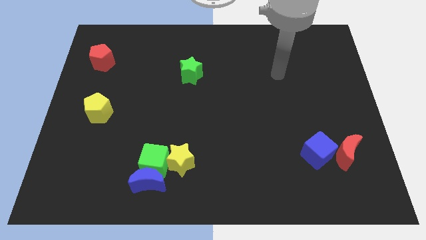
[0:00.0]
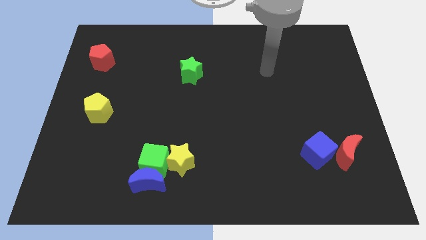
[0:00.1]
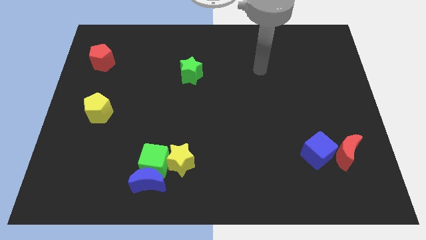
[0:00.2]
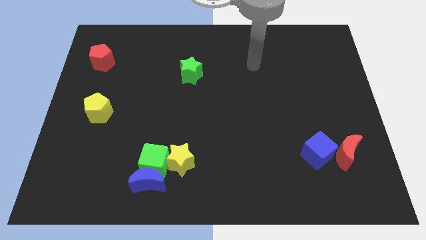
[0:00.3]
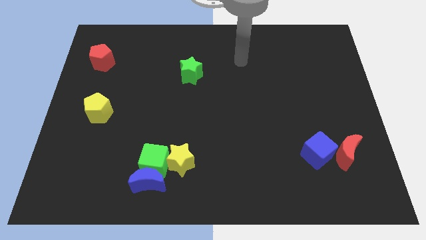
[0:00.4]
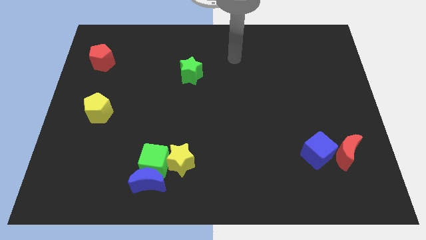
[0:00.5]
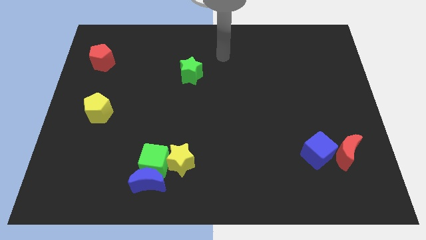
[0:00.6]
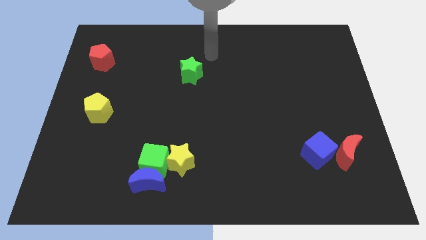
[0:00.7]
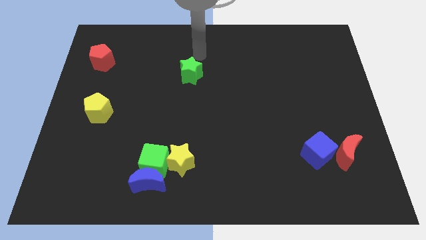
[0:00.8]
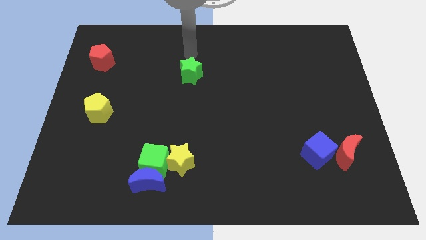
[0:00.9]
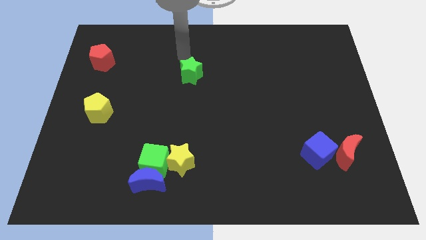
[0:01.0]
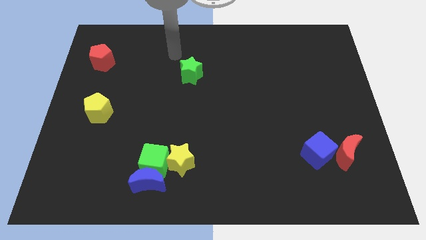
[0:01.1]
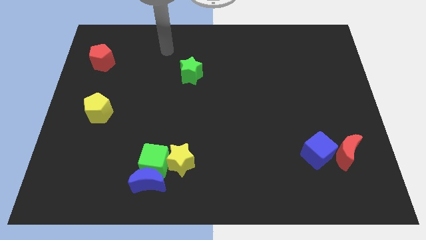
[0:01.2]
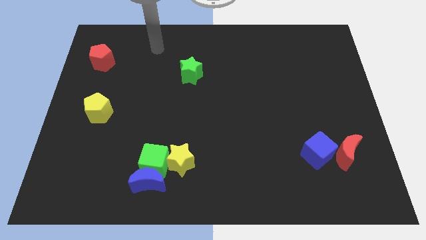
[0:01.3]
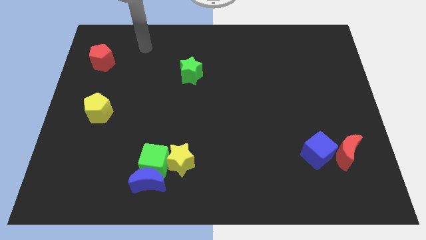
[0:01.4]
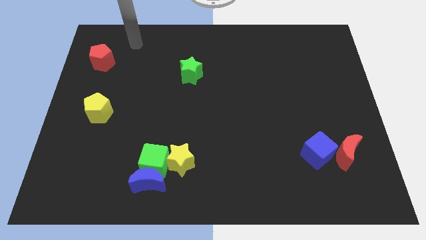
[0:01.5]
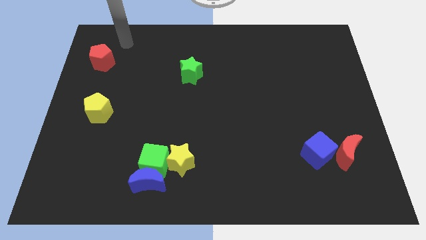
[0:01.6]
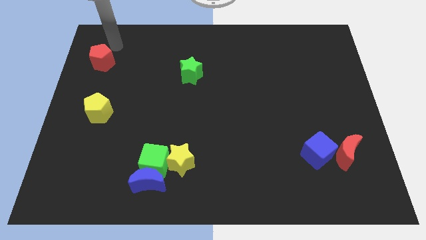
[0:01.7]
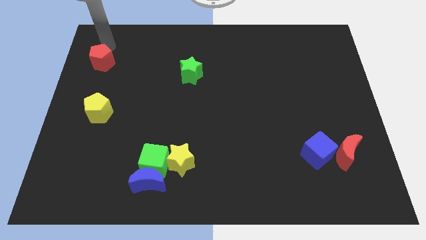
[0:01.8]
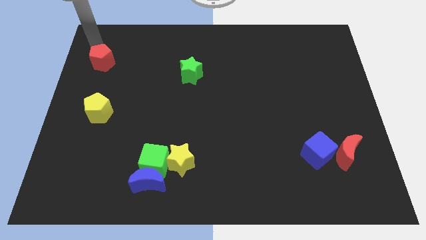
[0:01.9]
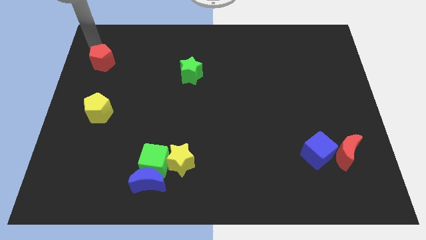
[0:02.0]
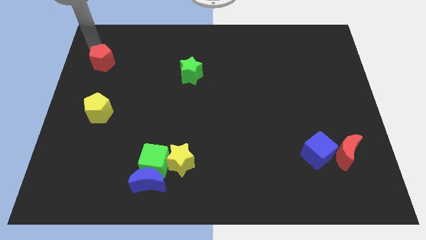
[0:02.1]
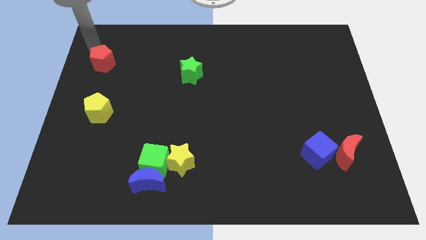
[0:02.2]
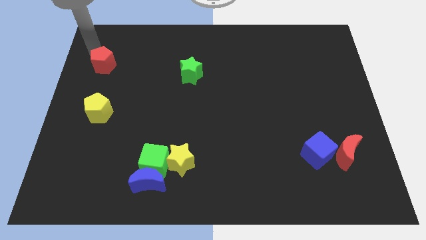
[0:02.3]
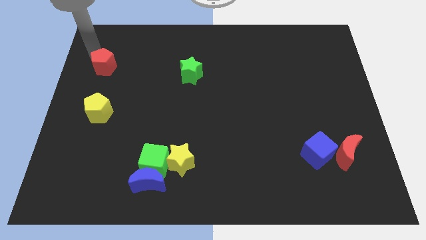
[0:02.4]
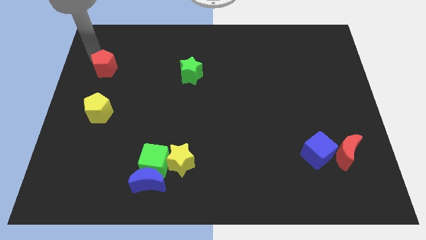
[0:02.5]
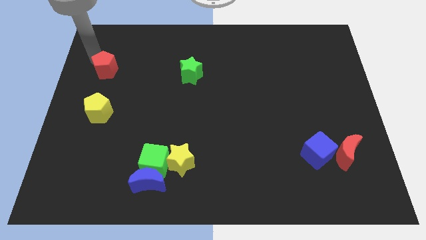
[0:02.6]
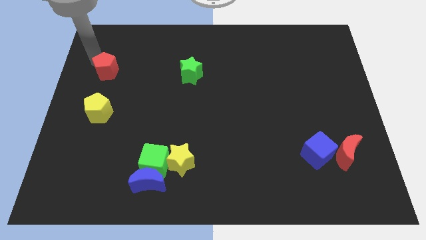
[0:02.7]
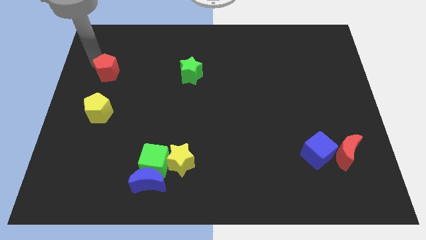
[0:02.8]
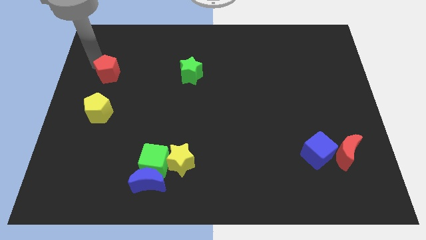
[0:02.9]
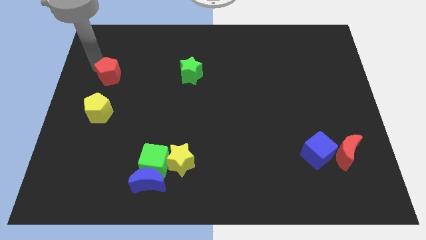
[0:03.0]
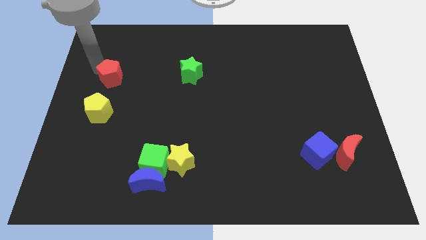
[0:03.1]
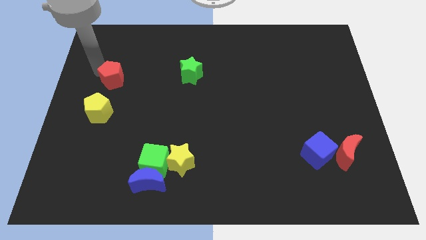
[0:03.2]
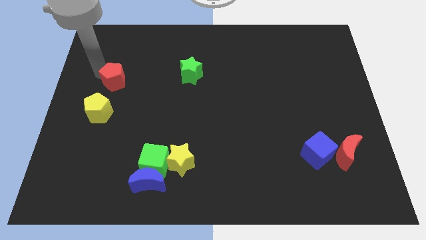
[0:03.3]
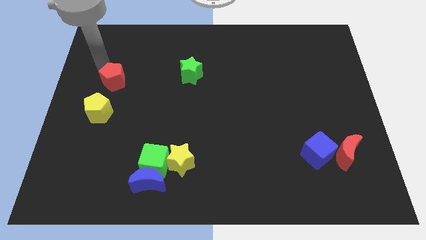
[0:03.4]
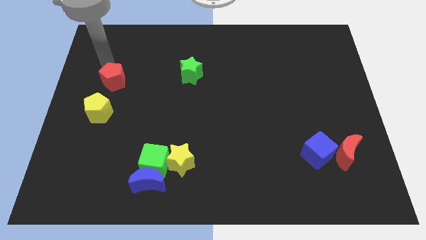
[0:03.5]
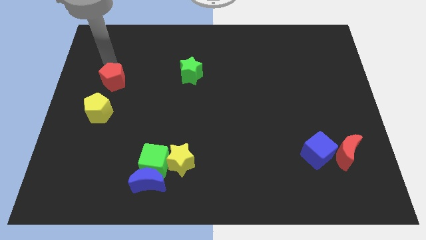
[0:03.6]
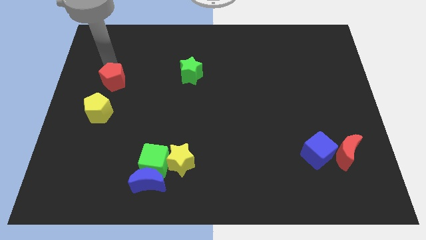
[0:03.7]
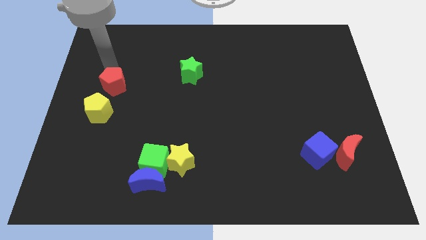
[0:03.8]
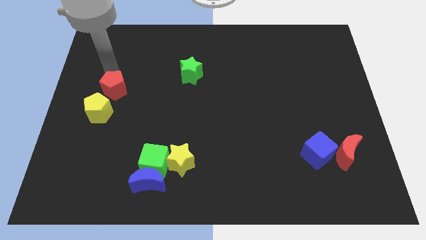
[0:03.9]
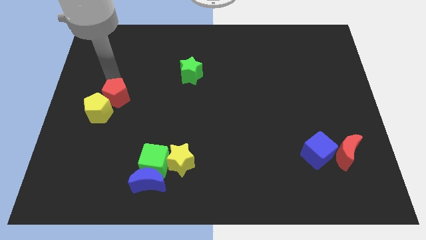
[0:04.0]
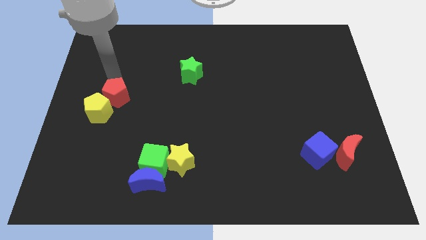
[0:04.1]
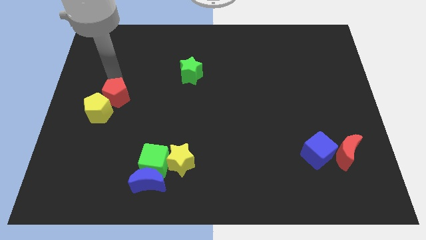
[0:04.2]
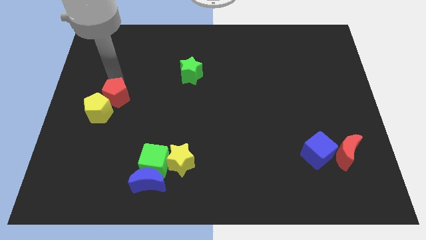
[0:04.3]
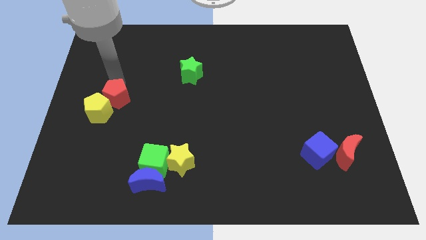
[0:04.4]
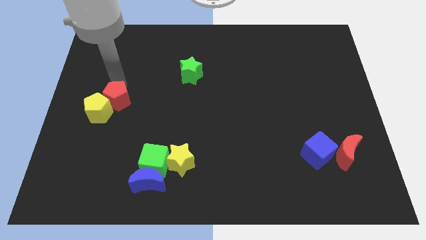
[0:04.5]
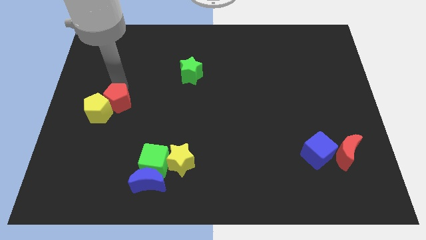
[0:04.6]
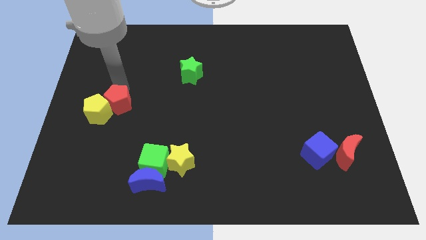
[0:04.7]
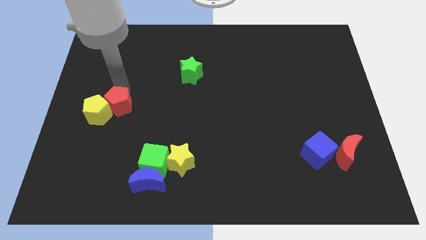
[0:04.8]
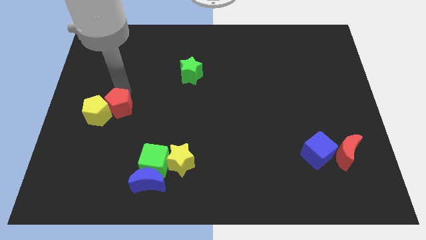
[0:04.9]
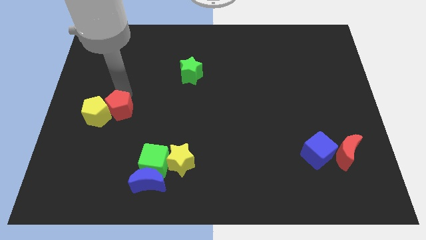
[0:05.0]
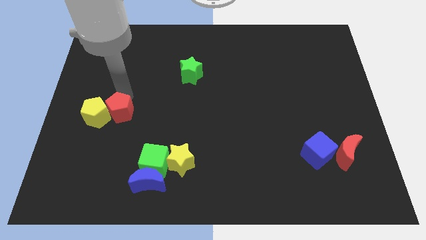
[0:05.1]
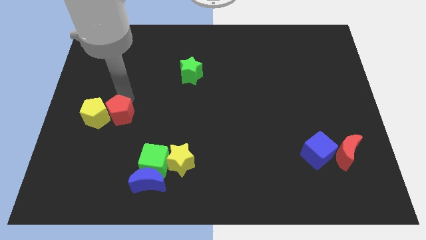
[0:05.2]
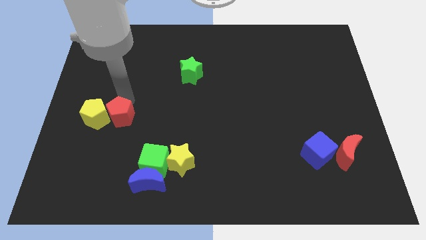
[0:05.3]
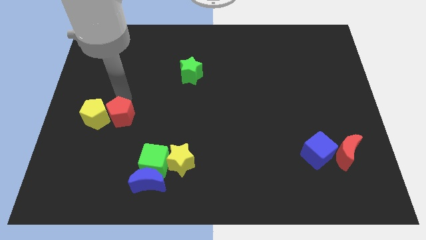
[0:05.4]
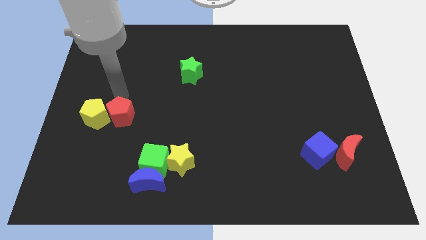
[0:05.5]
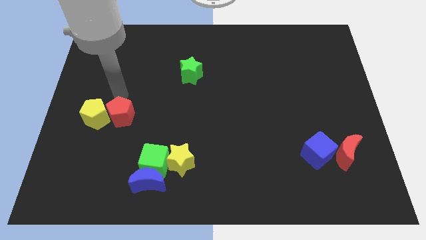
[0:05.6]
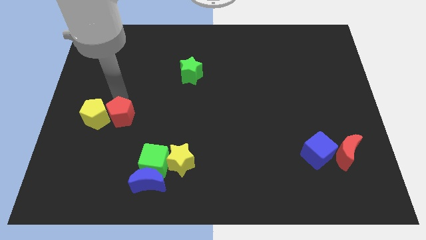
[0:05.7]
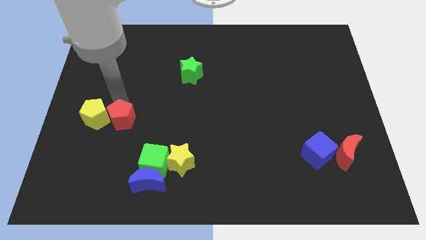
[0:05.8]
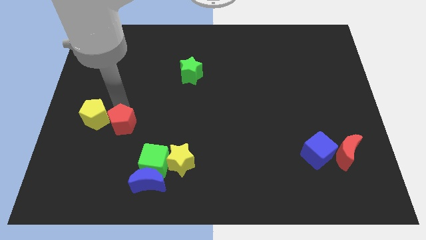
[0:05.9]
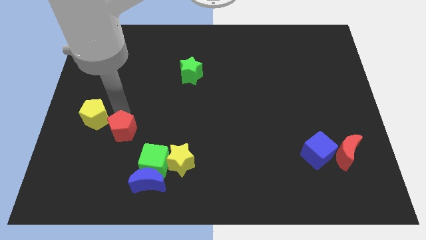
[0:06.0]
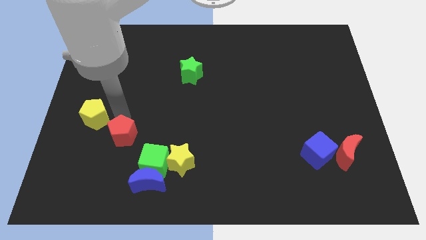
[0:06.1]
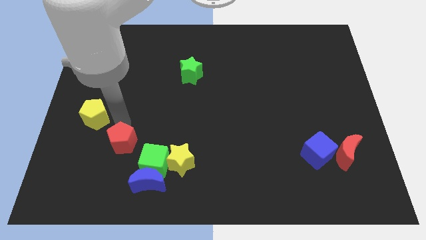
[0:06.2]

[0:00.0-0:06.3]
move the red pentagon diagonally up and to the left of the blue moon

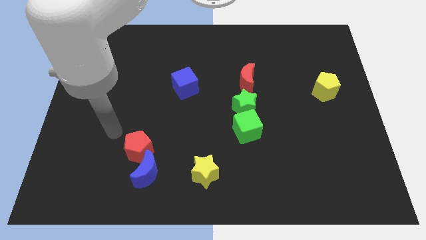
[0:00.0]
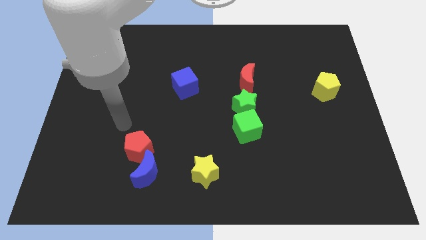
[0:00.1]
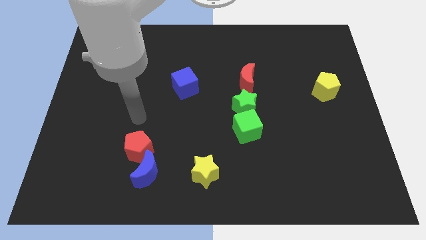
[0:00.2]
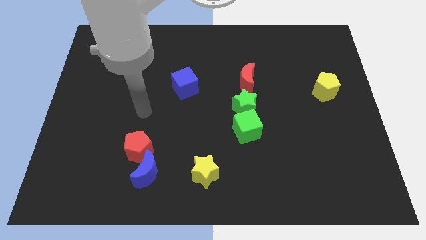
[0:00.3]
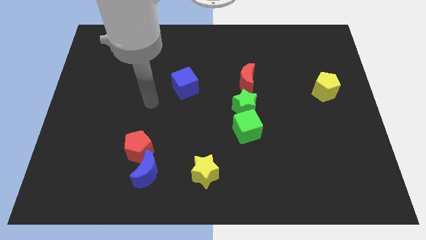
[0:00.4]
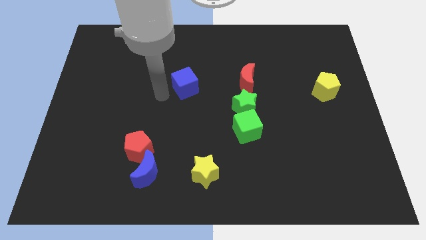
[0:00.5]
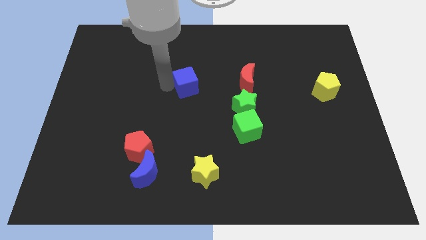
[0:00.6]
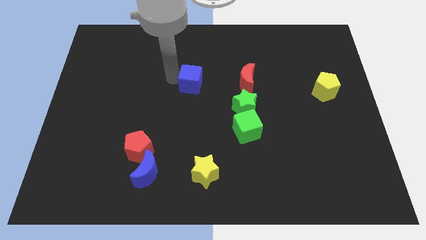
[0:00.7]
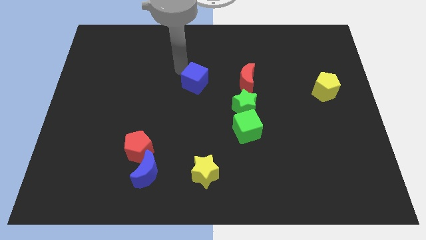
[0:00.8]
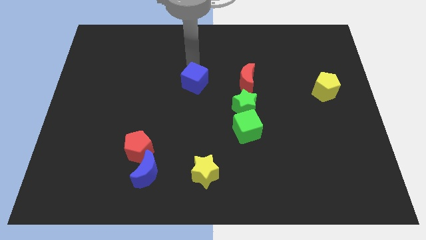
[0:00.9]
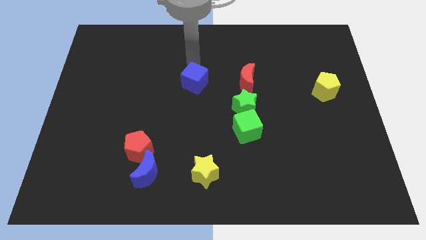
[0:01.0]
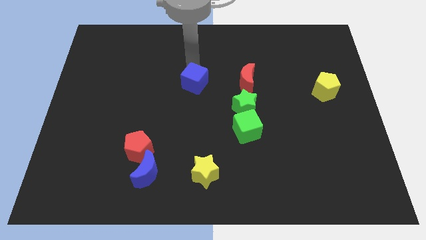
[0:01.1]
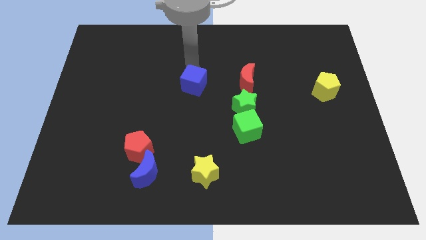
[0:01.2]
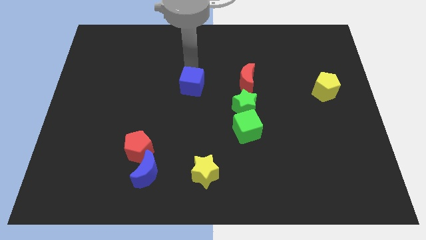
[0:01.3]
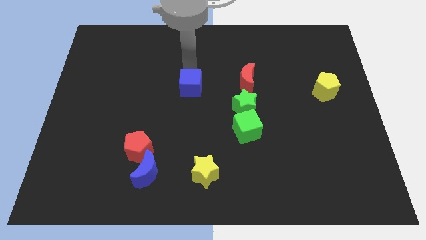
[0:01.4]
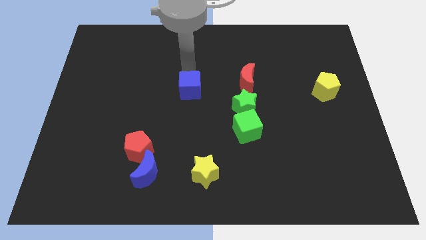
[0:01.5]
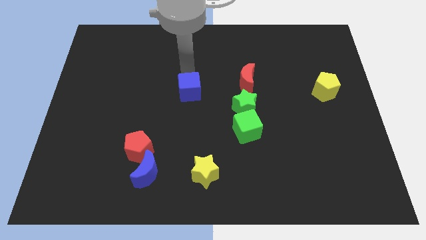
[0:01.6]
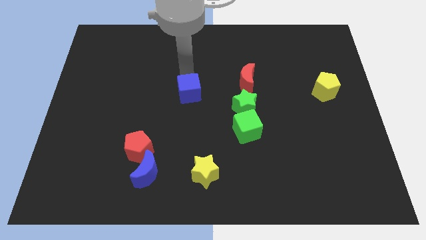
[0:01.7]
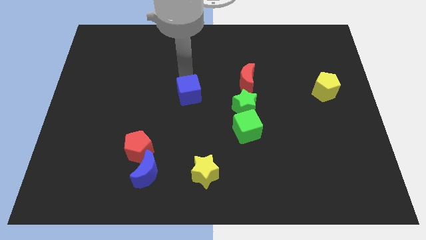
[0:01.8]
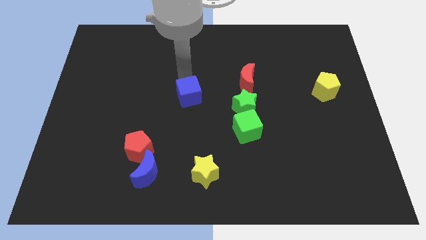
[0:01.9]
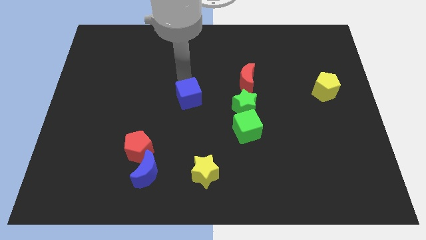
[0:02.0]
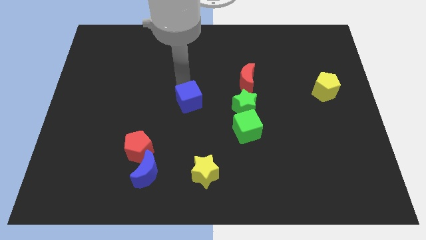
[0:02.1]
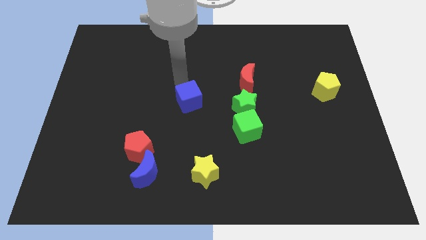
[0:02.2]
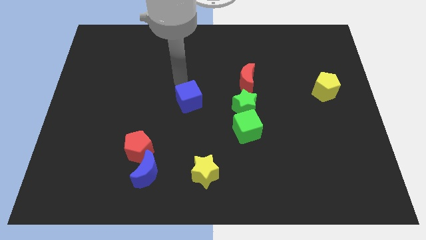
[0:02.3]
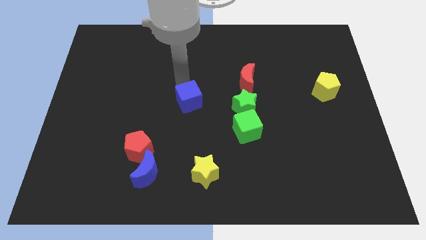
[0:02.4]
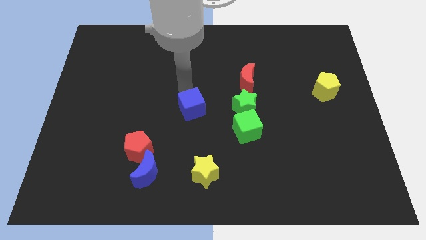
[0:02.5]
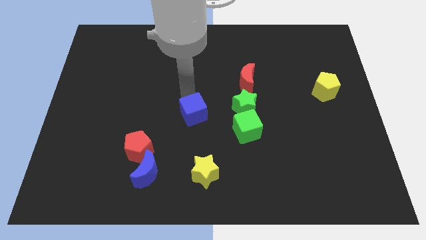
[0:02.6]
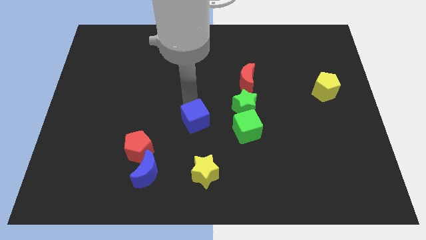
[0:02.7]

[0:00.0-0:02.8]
push the blue cube to the top side of the yellow star
